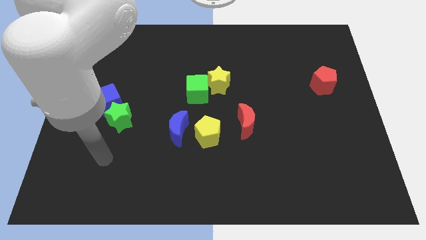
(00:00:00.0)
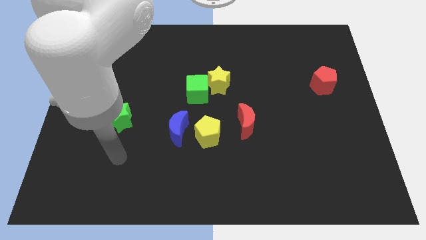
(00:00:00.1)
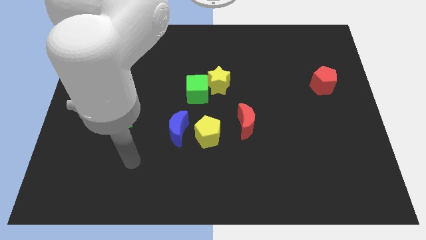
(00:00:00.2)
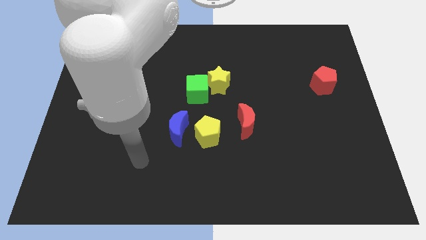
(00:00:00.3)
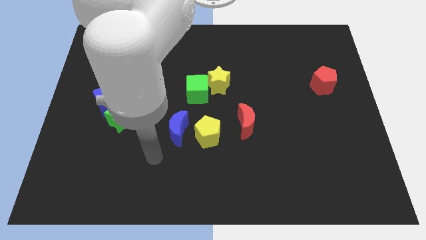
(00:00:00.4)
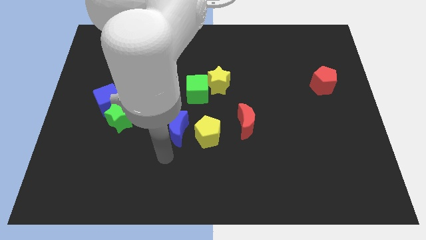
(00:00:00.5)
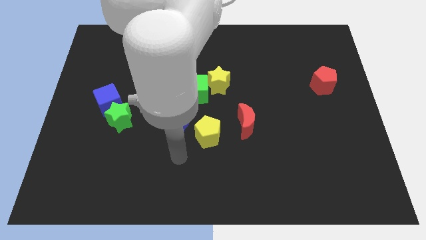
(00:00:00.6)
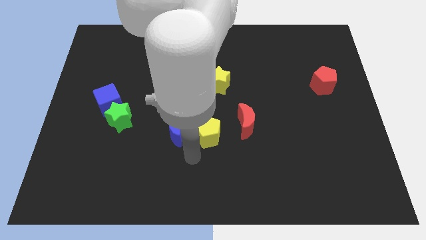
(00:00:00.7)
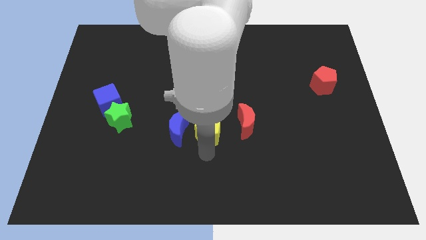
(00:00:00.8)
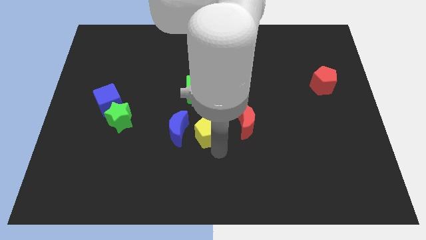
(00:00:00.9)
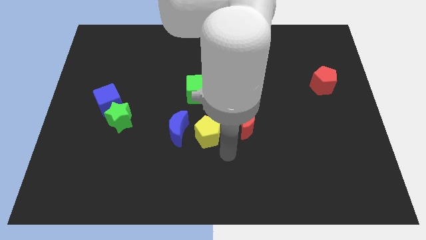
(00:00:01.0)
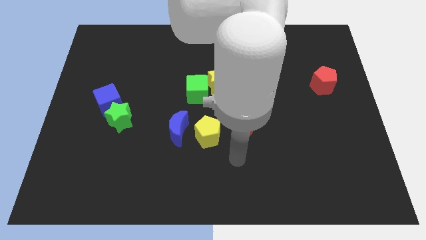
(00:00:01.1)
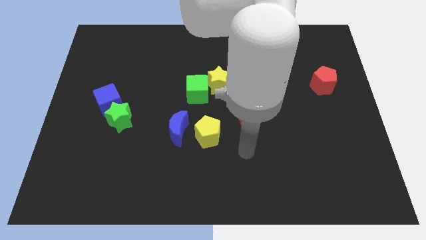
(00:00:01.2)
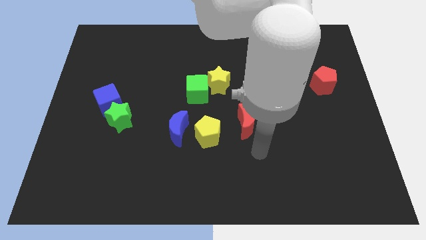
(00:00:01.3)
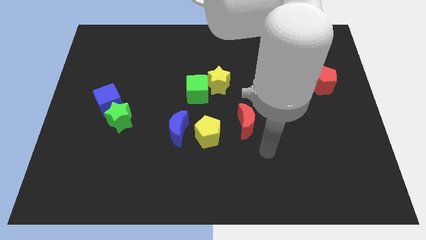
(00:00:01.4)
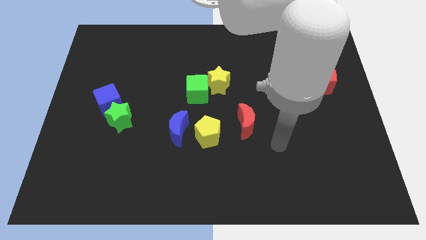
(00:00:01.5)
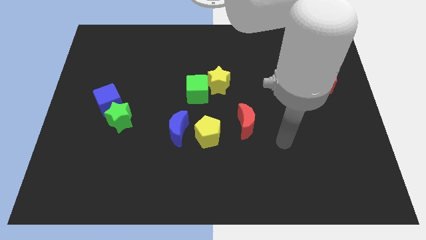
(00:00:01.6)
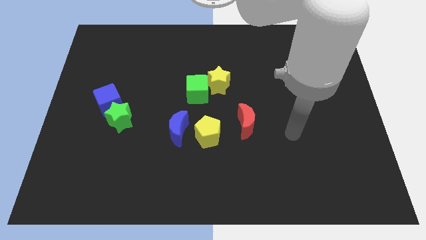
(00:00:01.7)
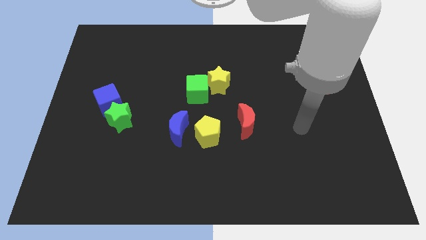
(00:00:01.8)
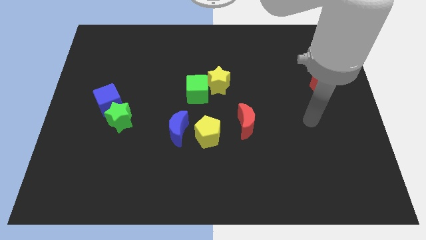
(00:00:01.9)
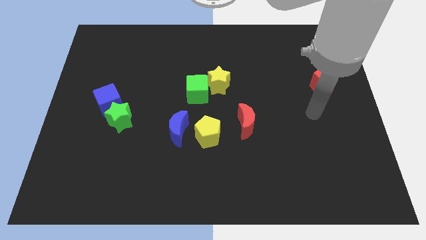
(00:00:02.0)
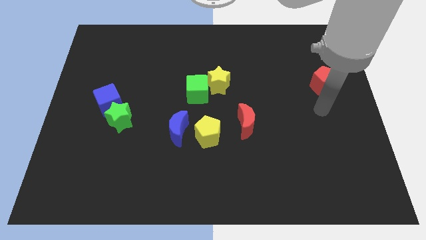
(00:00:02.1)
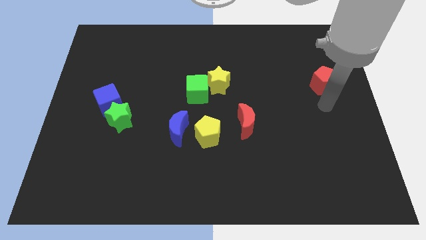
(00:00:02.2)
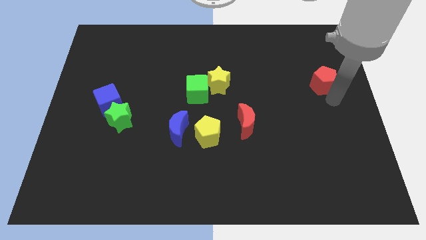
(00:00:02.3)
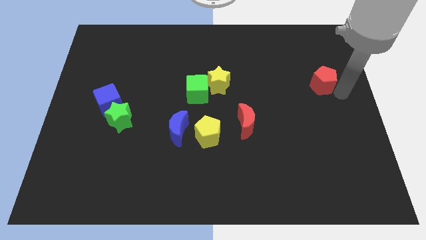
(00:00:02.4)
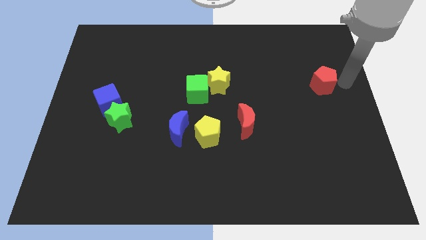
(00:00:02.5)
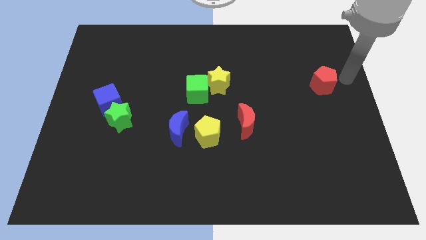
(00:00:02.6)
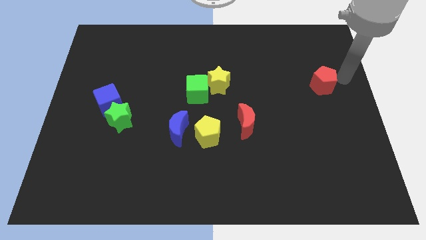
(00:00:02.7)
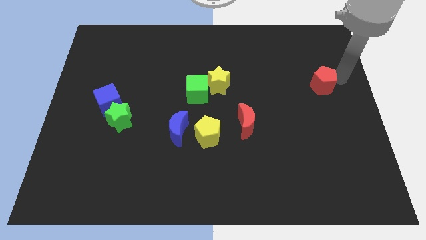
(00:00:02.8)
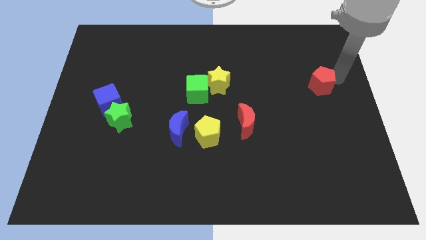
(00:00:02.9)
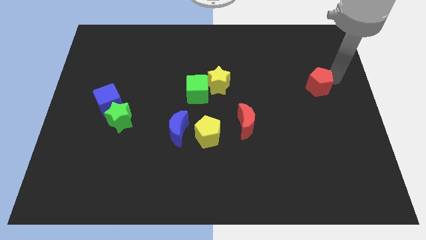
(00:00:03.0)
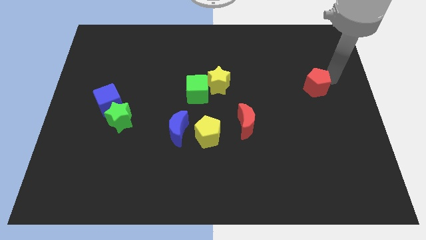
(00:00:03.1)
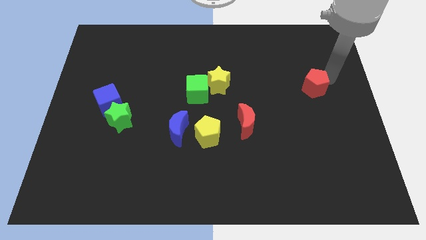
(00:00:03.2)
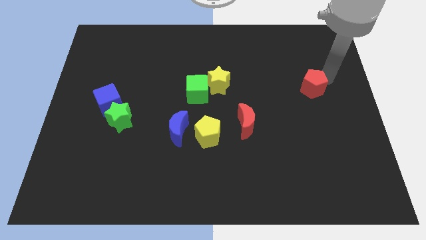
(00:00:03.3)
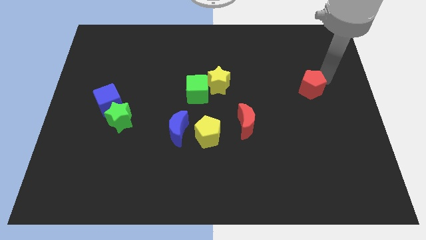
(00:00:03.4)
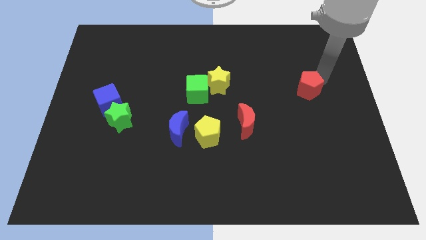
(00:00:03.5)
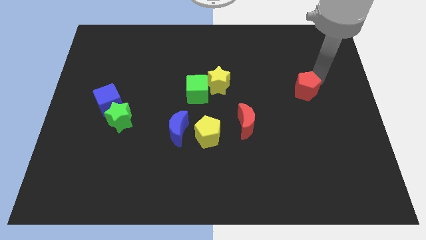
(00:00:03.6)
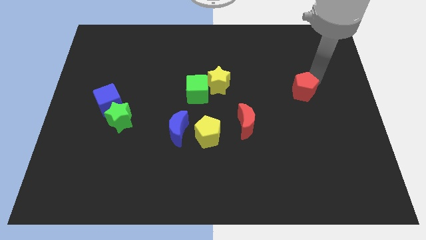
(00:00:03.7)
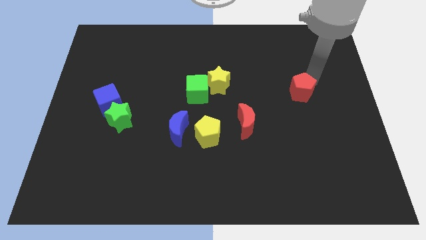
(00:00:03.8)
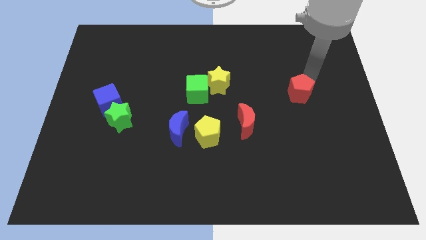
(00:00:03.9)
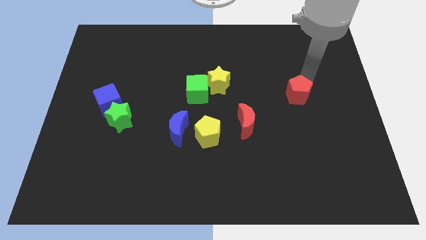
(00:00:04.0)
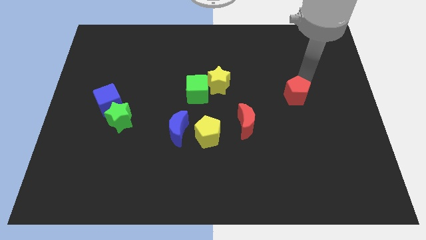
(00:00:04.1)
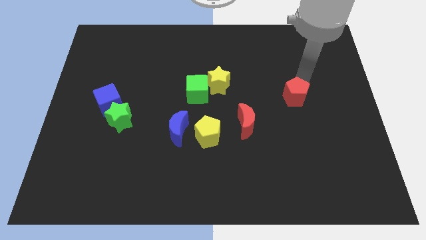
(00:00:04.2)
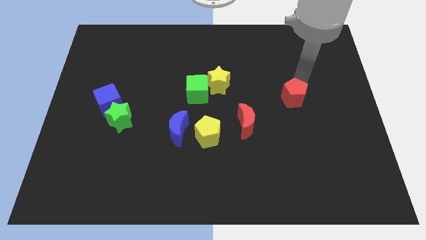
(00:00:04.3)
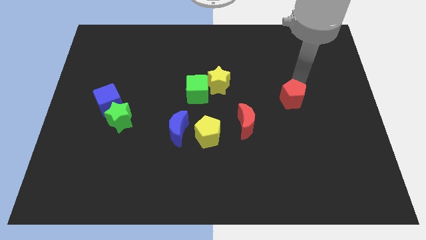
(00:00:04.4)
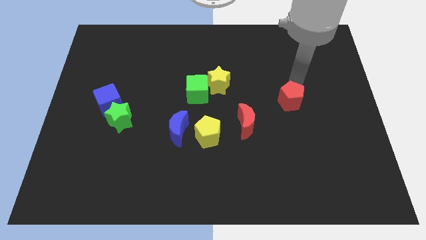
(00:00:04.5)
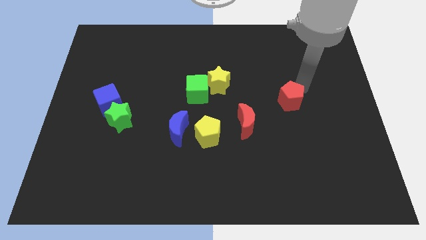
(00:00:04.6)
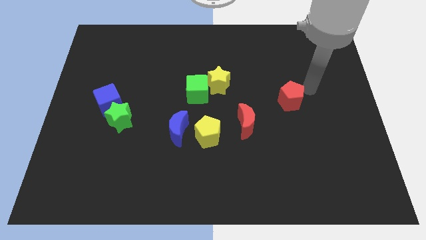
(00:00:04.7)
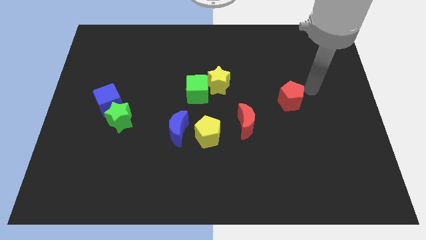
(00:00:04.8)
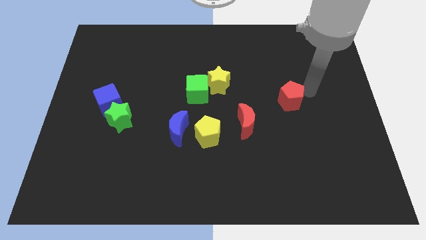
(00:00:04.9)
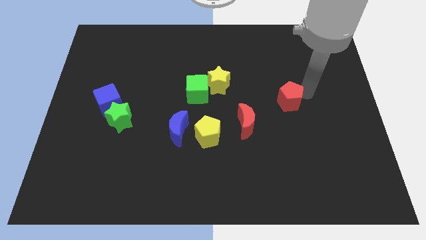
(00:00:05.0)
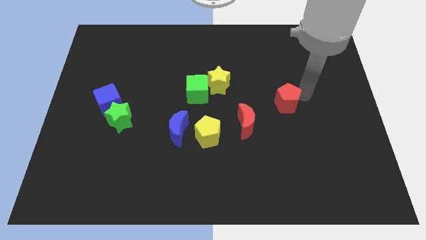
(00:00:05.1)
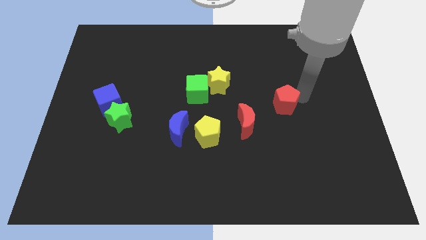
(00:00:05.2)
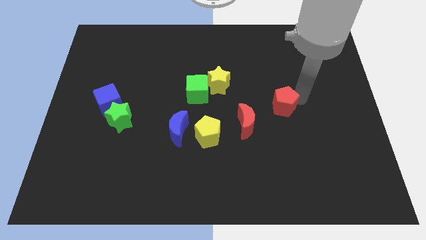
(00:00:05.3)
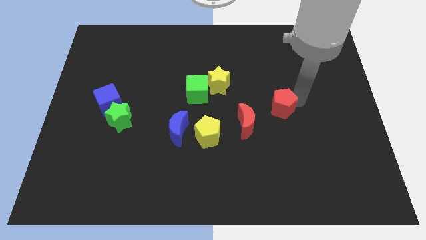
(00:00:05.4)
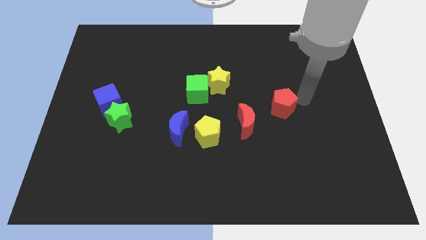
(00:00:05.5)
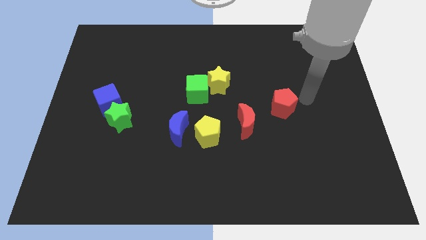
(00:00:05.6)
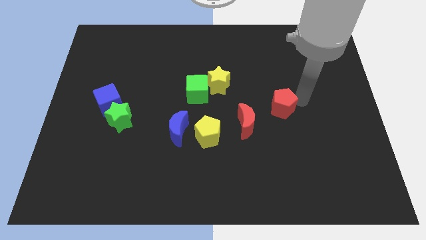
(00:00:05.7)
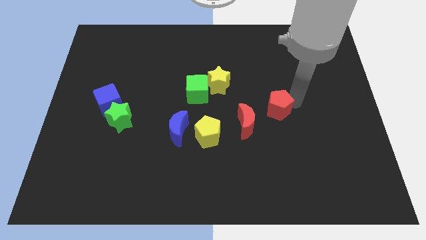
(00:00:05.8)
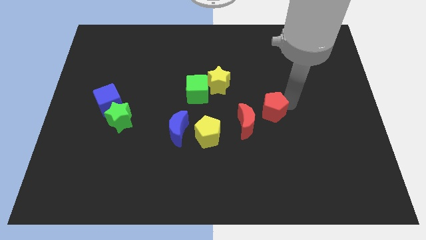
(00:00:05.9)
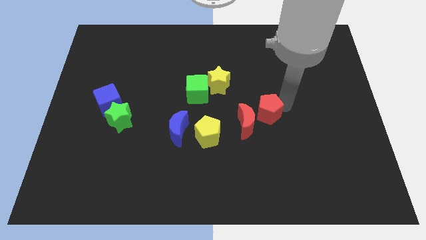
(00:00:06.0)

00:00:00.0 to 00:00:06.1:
slide the red pentagon to the red moon

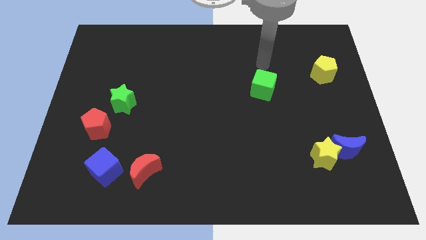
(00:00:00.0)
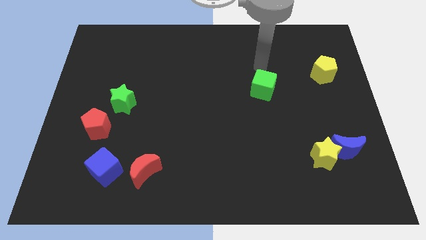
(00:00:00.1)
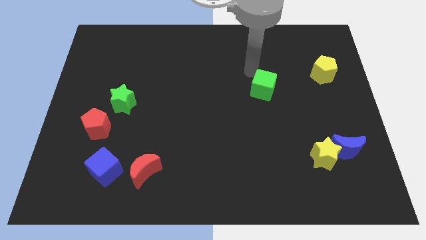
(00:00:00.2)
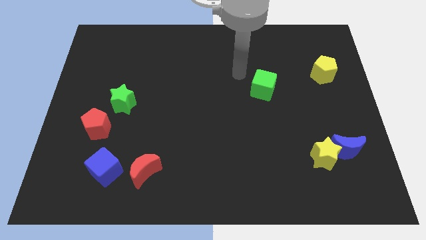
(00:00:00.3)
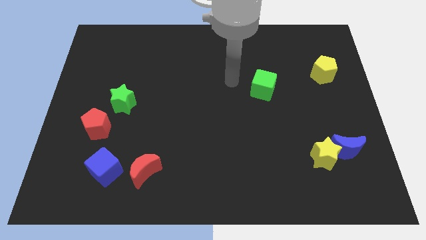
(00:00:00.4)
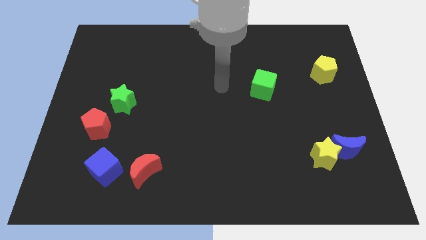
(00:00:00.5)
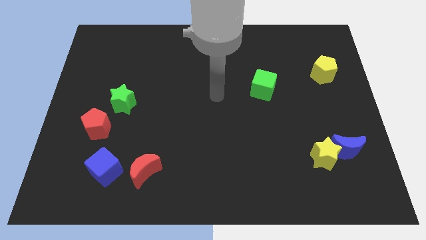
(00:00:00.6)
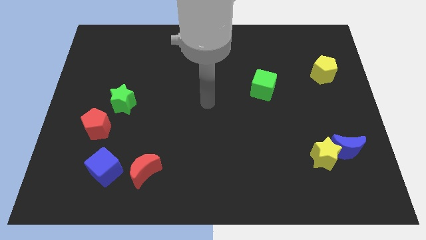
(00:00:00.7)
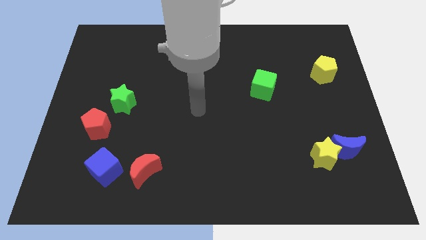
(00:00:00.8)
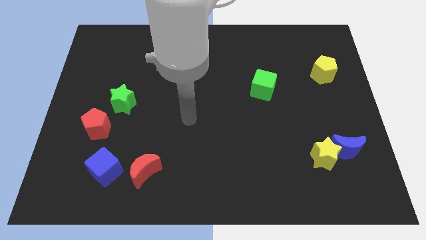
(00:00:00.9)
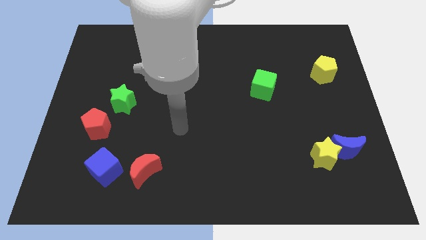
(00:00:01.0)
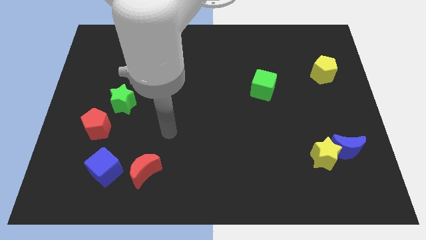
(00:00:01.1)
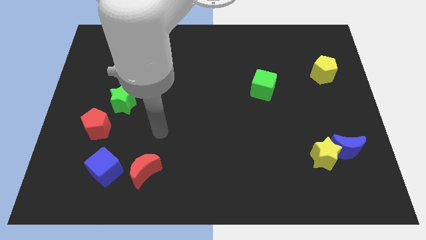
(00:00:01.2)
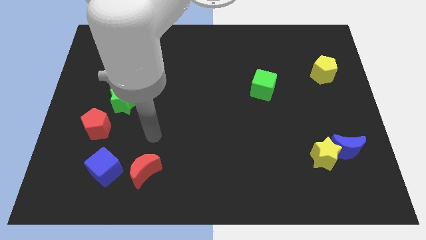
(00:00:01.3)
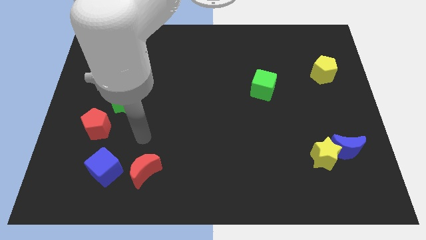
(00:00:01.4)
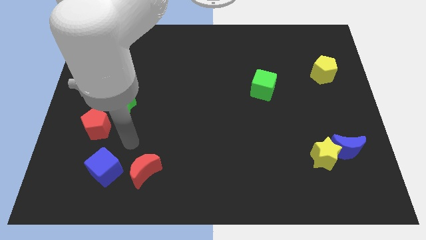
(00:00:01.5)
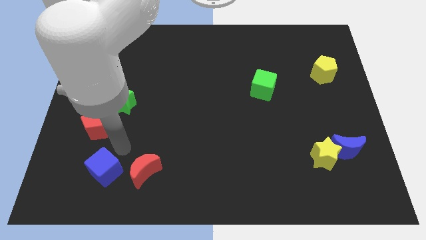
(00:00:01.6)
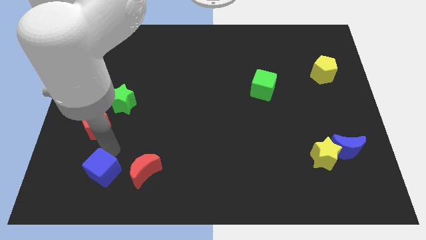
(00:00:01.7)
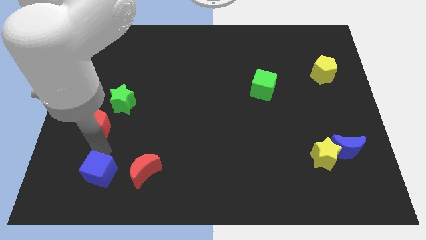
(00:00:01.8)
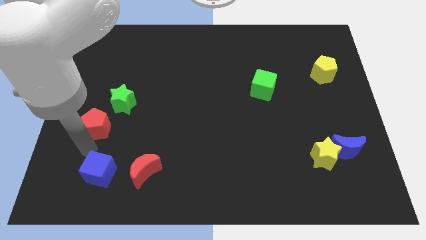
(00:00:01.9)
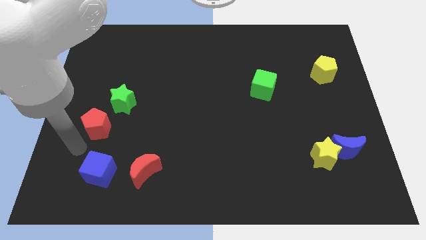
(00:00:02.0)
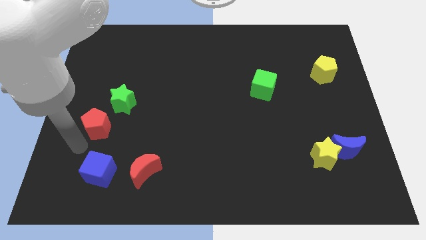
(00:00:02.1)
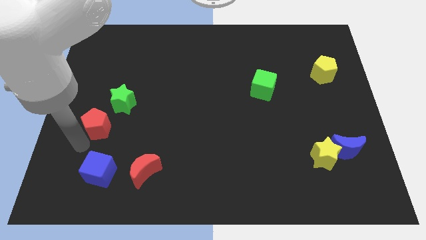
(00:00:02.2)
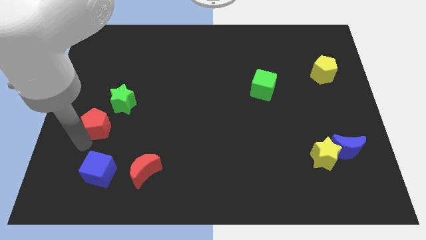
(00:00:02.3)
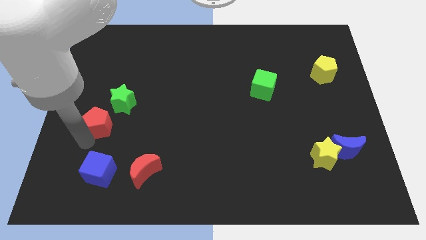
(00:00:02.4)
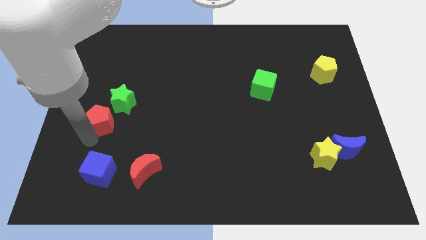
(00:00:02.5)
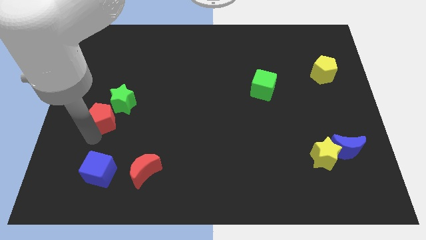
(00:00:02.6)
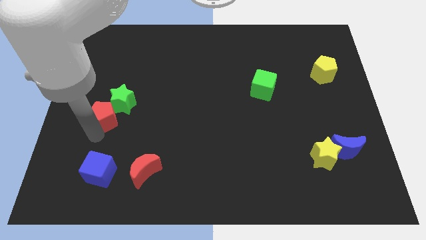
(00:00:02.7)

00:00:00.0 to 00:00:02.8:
slide the red pentagon next to the green star
